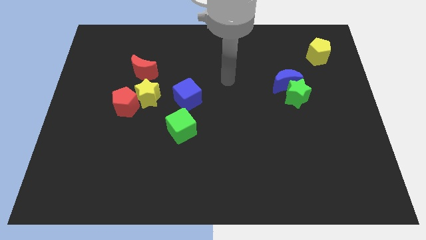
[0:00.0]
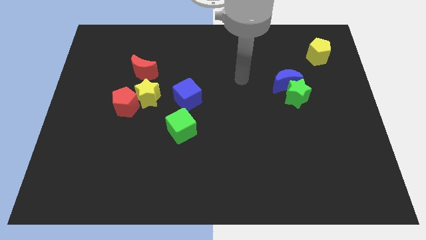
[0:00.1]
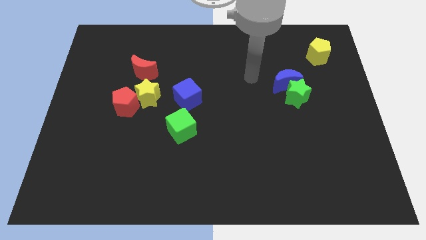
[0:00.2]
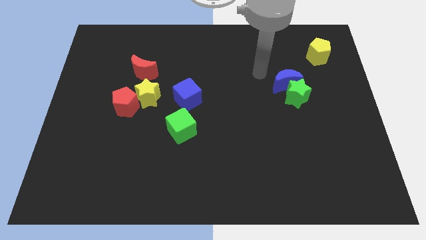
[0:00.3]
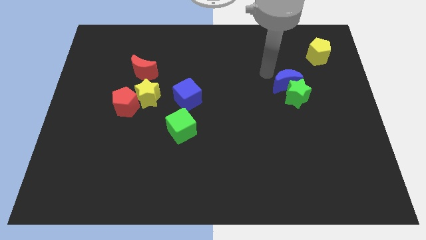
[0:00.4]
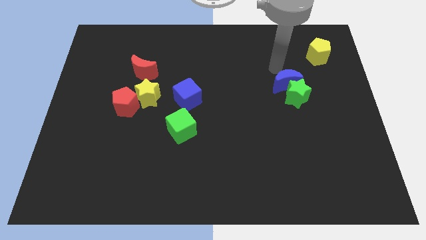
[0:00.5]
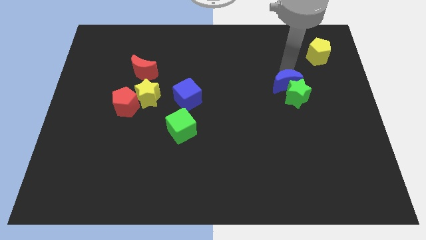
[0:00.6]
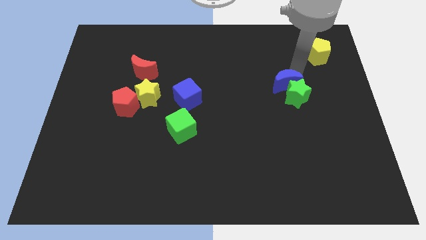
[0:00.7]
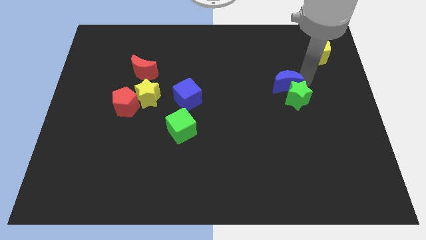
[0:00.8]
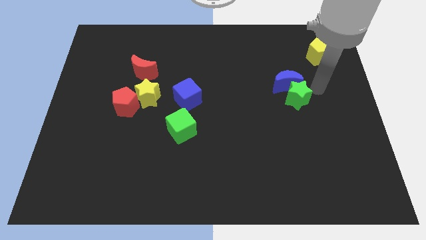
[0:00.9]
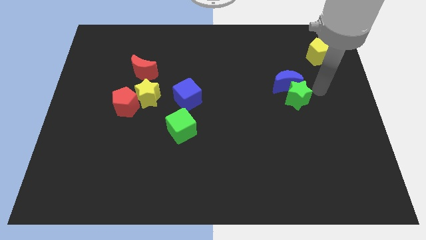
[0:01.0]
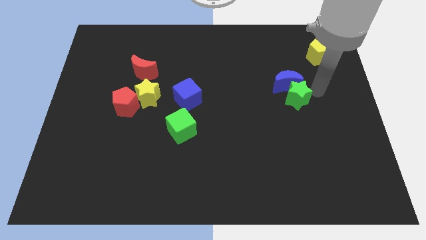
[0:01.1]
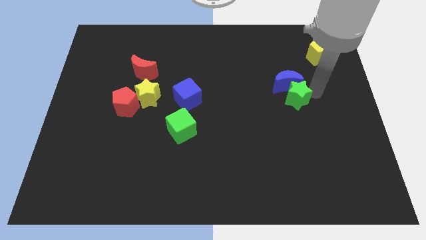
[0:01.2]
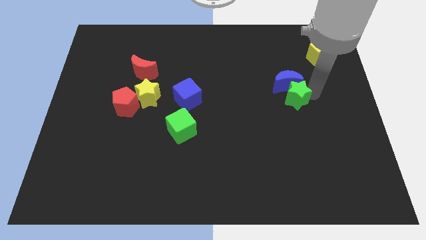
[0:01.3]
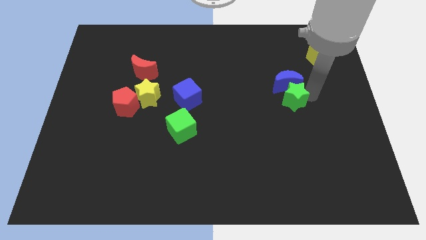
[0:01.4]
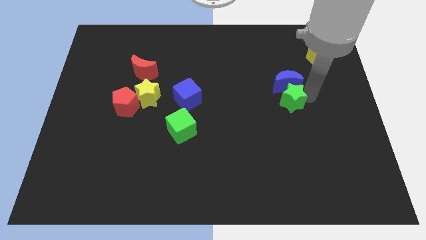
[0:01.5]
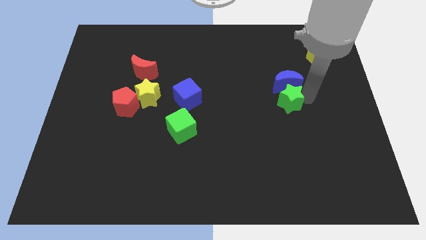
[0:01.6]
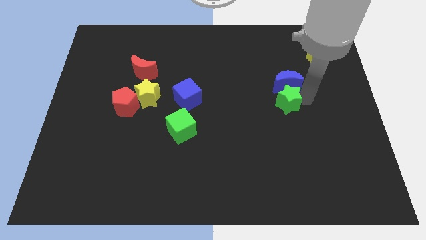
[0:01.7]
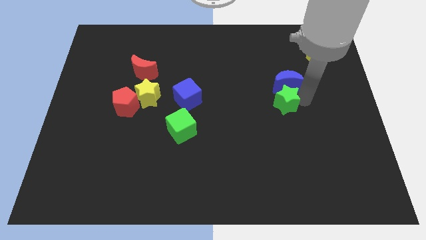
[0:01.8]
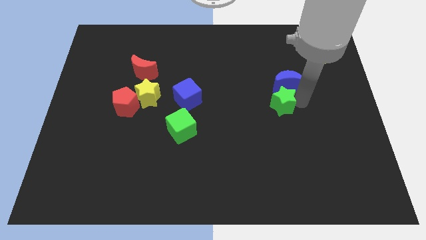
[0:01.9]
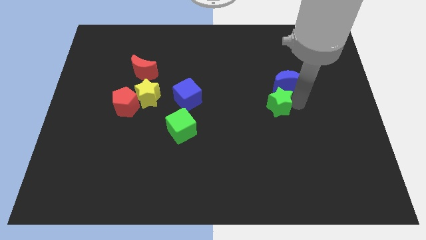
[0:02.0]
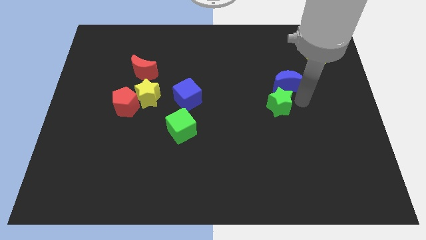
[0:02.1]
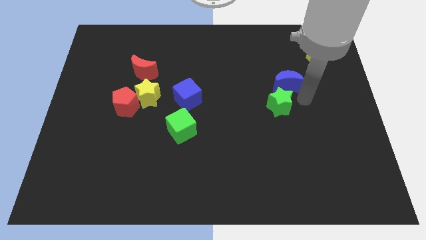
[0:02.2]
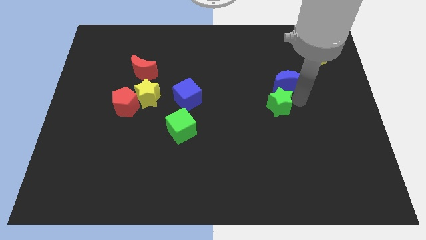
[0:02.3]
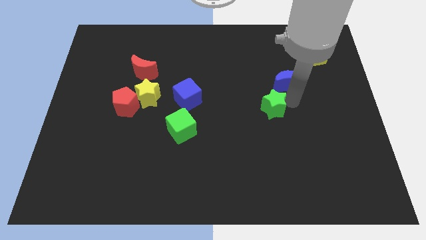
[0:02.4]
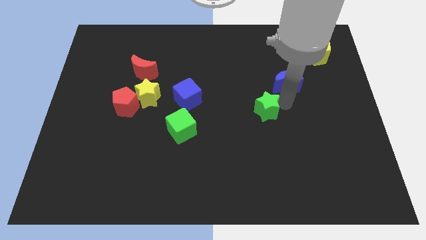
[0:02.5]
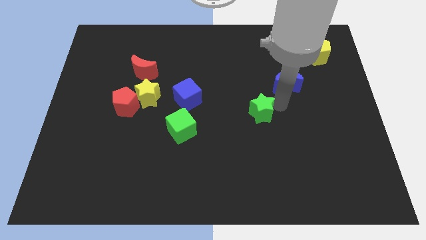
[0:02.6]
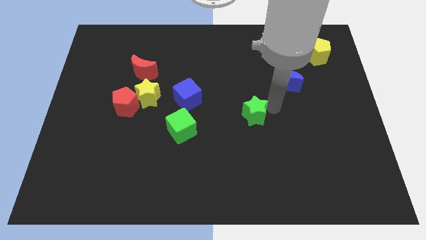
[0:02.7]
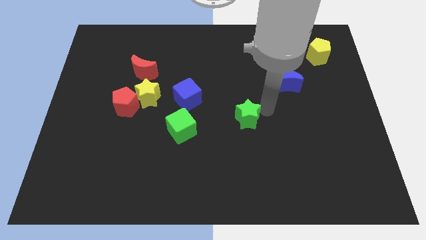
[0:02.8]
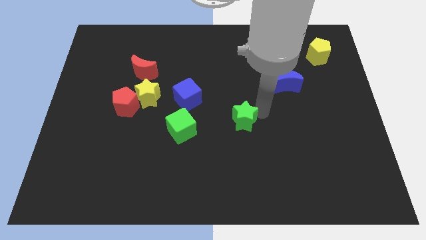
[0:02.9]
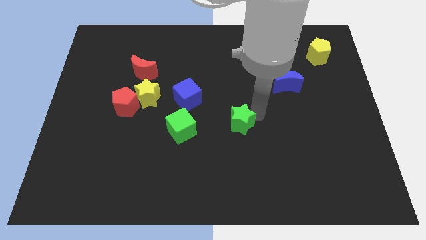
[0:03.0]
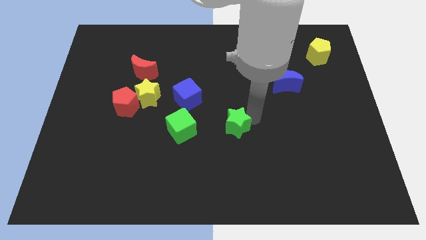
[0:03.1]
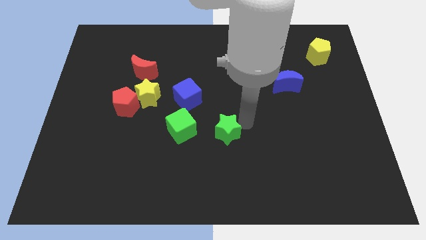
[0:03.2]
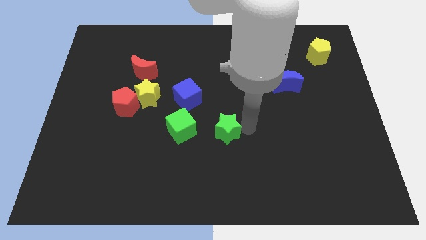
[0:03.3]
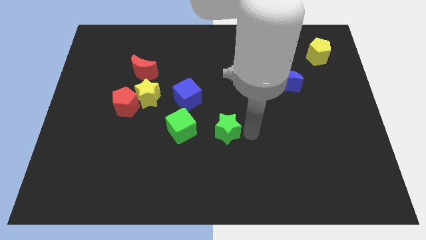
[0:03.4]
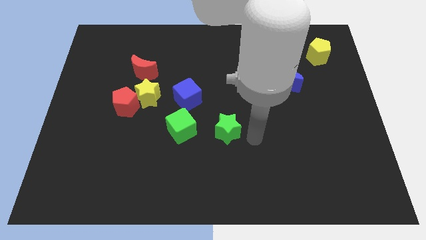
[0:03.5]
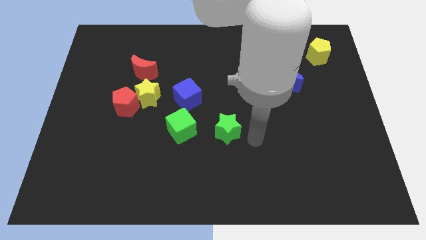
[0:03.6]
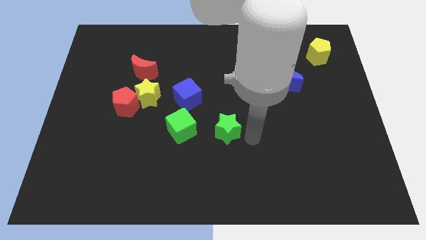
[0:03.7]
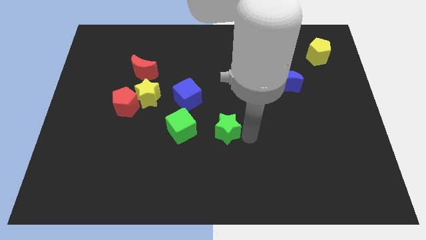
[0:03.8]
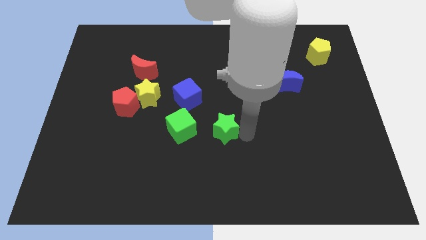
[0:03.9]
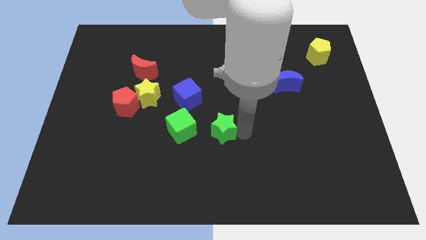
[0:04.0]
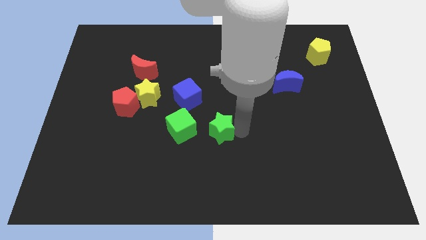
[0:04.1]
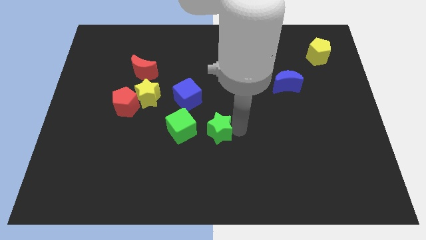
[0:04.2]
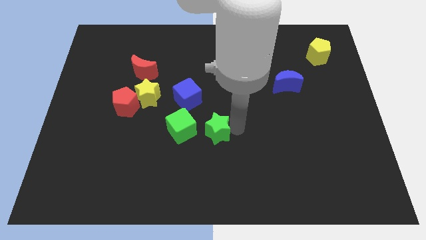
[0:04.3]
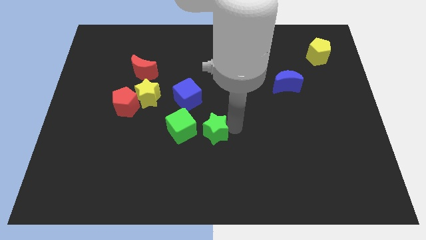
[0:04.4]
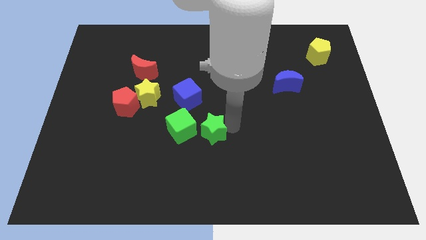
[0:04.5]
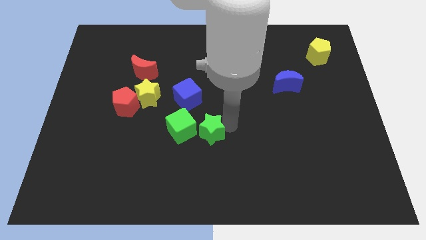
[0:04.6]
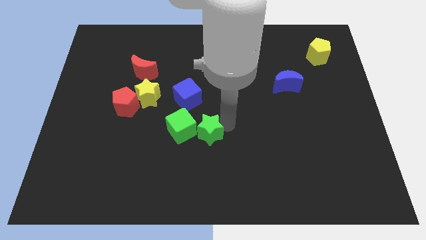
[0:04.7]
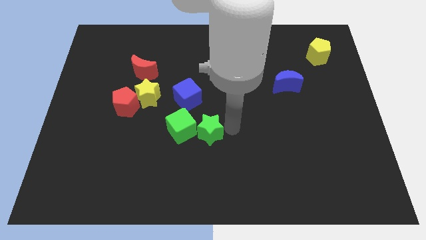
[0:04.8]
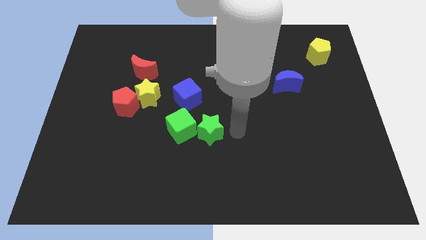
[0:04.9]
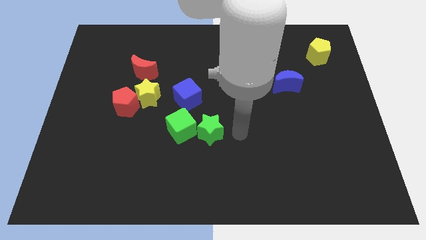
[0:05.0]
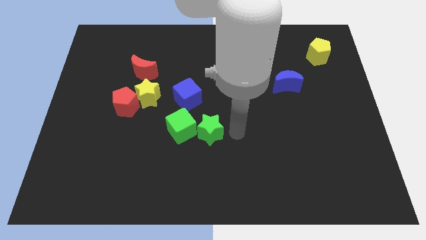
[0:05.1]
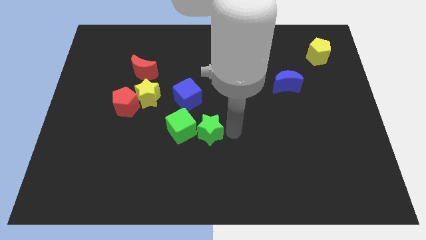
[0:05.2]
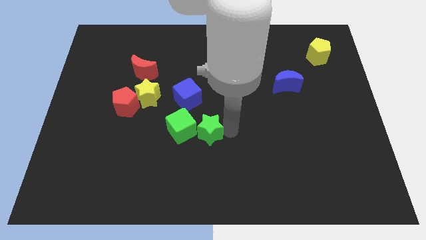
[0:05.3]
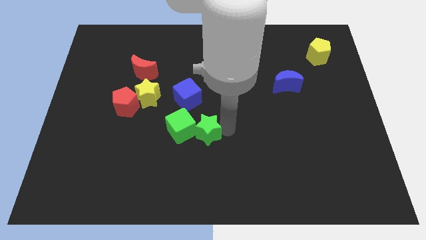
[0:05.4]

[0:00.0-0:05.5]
move the green star towards the green cube
